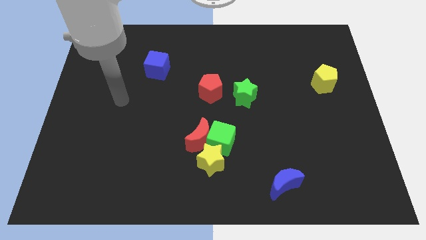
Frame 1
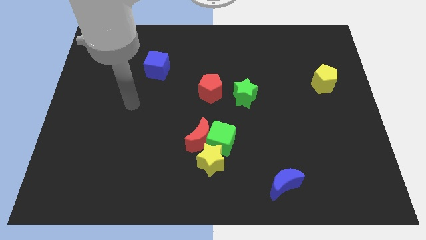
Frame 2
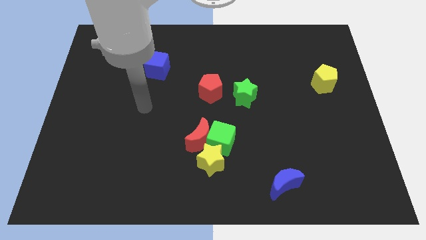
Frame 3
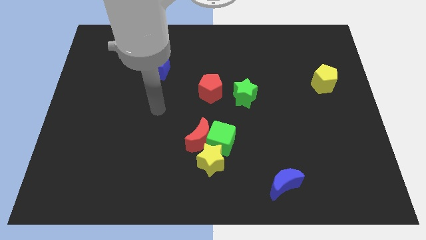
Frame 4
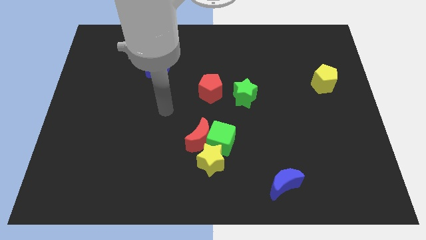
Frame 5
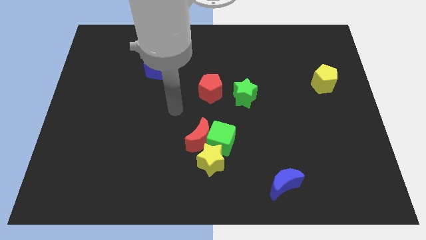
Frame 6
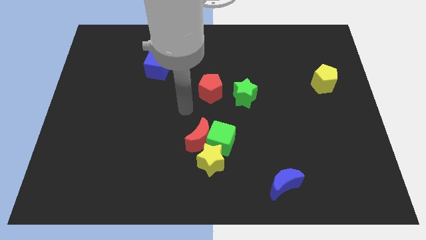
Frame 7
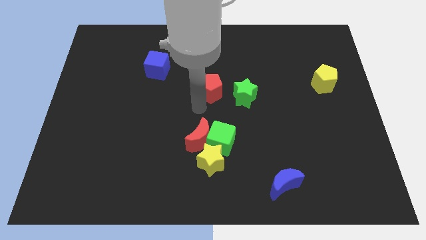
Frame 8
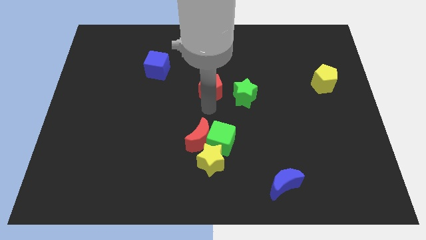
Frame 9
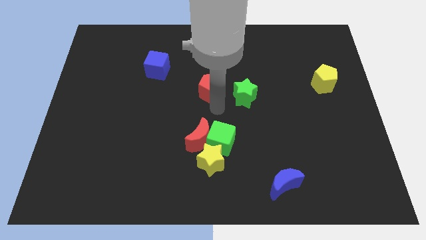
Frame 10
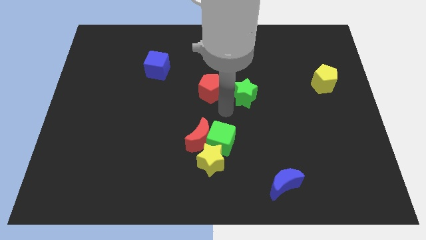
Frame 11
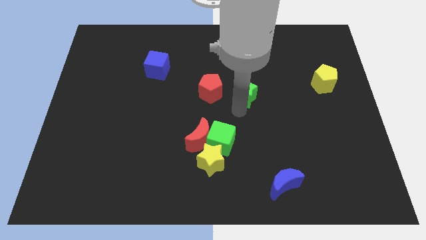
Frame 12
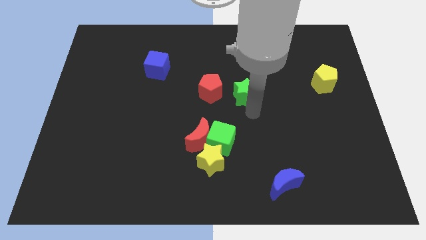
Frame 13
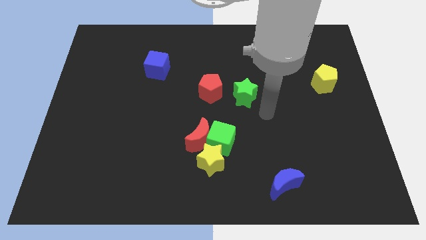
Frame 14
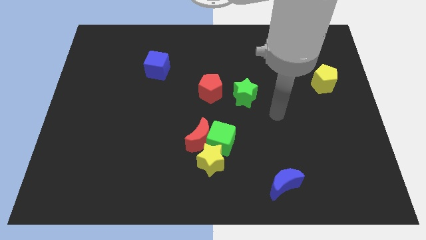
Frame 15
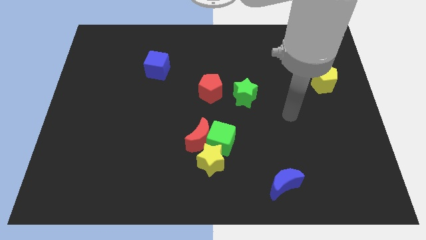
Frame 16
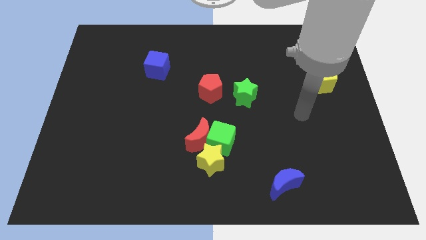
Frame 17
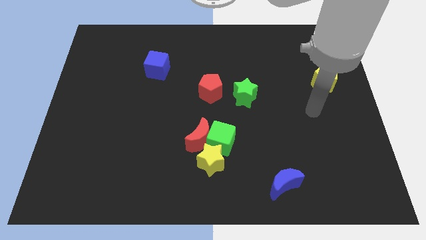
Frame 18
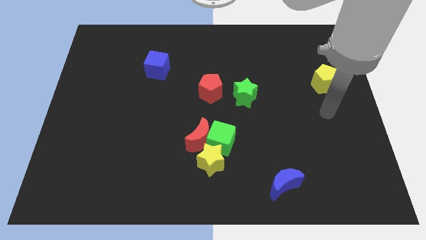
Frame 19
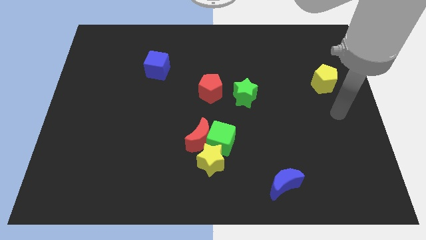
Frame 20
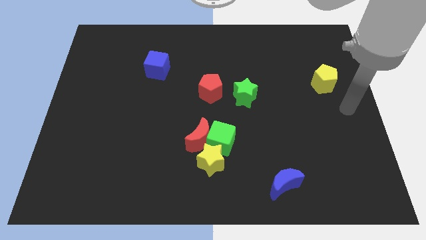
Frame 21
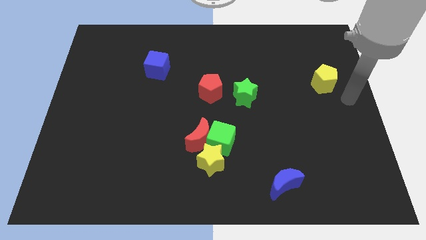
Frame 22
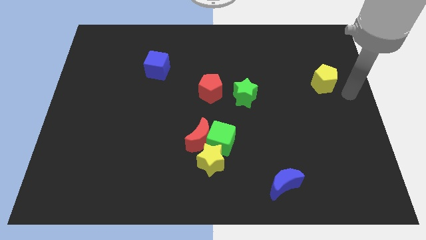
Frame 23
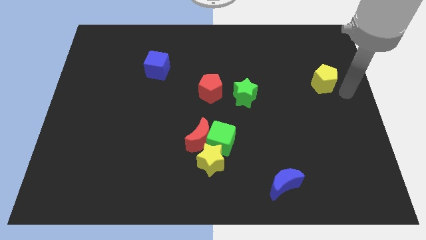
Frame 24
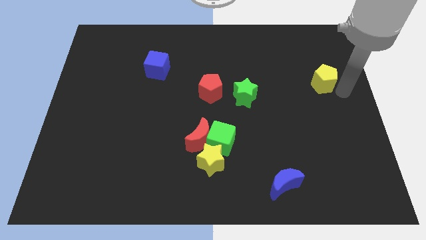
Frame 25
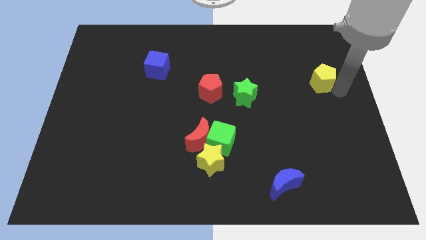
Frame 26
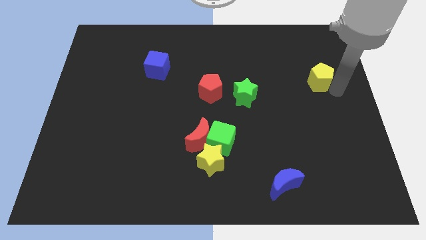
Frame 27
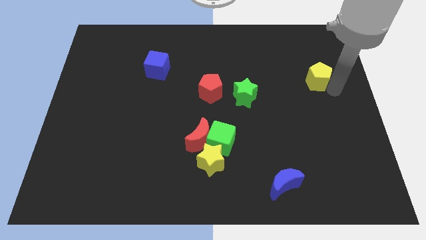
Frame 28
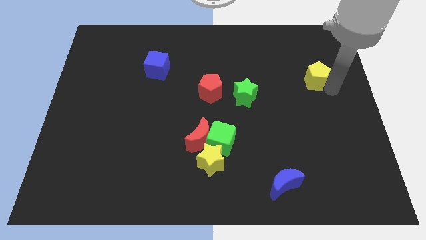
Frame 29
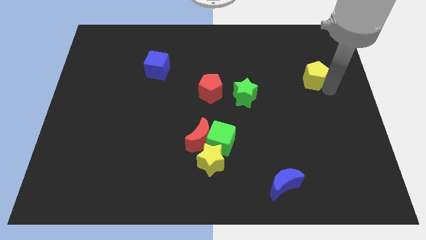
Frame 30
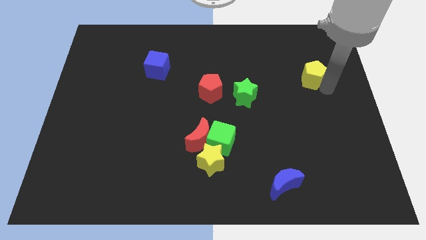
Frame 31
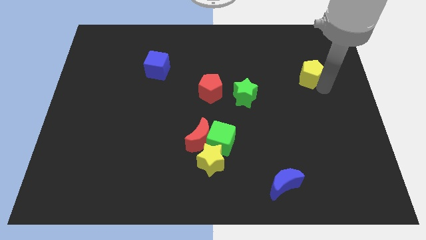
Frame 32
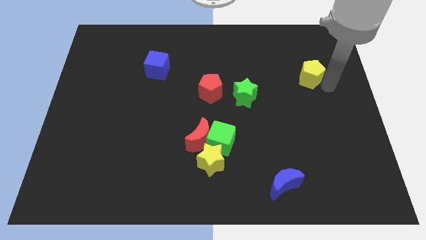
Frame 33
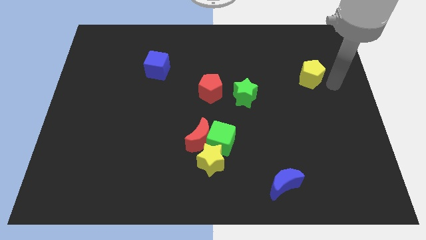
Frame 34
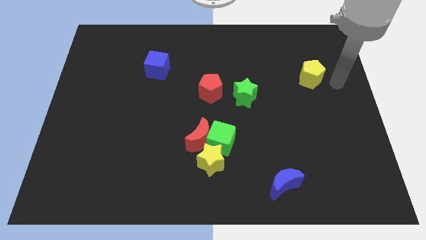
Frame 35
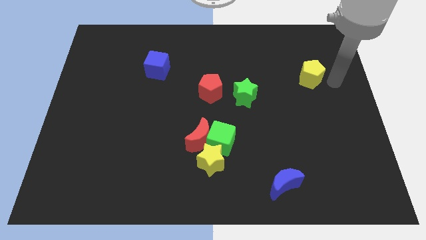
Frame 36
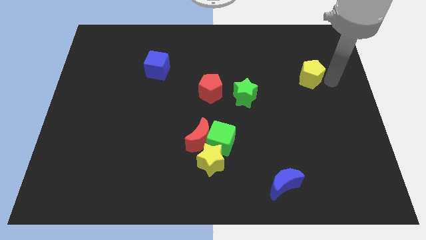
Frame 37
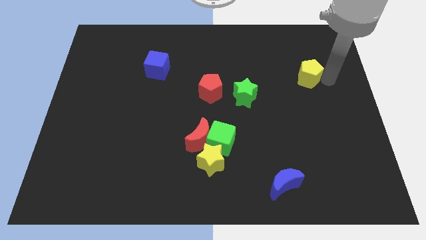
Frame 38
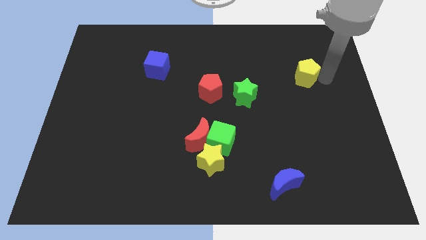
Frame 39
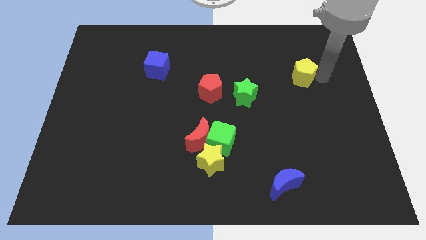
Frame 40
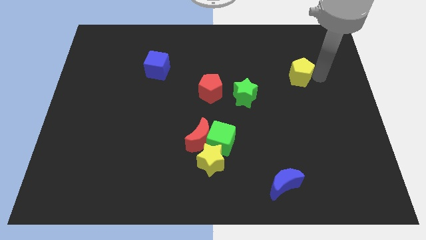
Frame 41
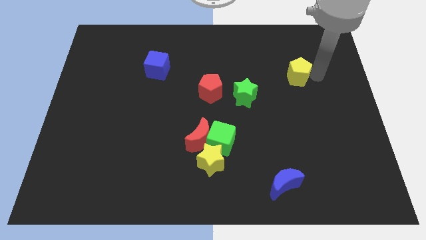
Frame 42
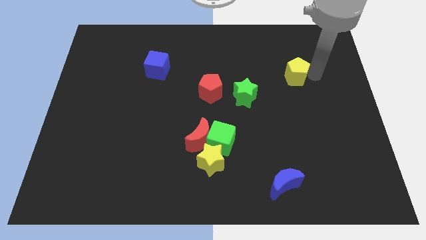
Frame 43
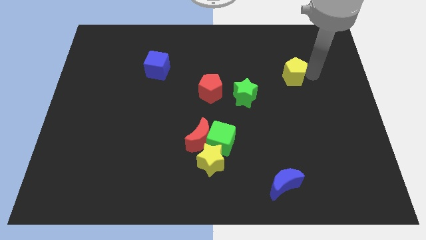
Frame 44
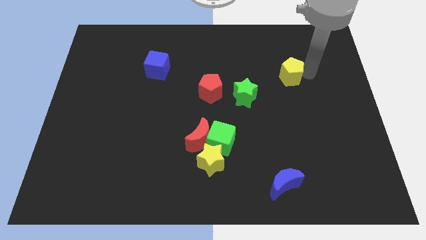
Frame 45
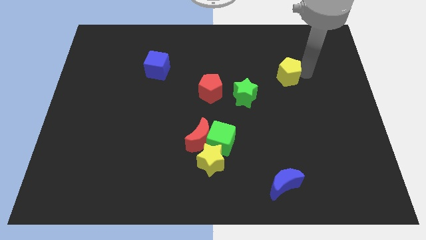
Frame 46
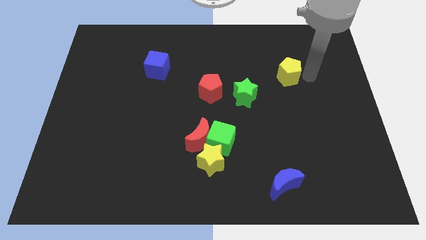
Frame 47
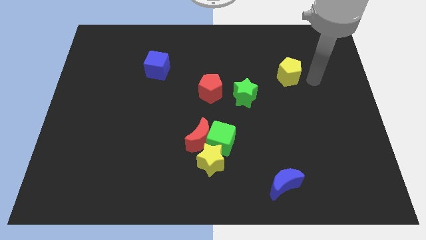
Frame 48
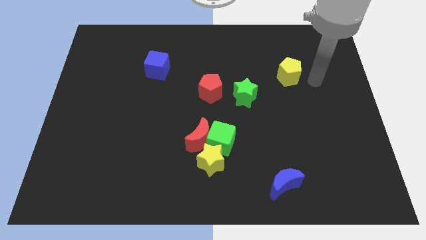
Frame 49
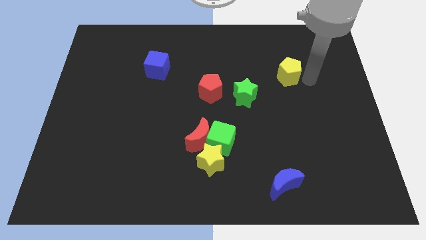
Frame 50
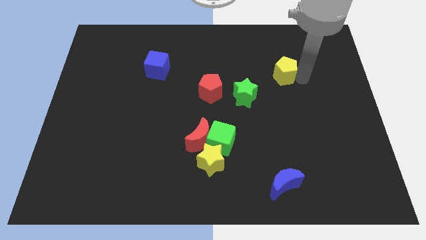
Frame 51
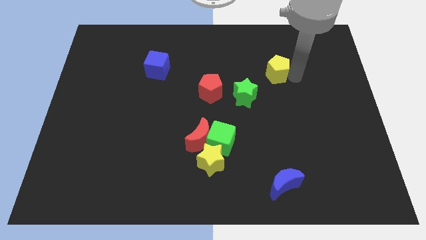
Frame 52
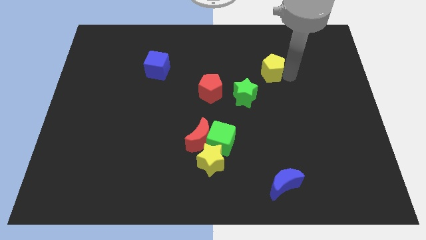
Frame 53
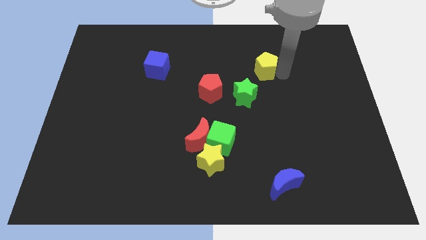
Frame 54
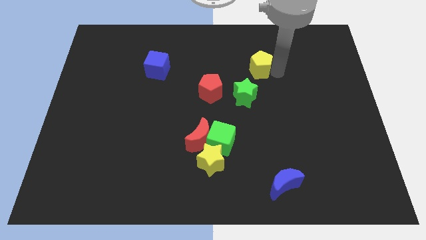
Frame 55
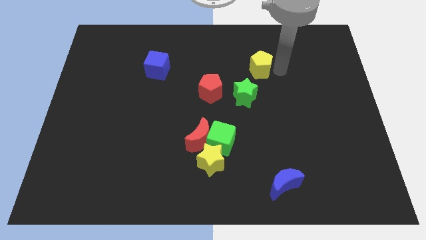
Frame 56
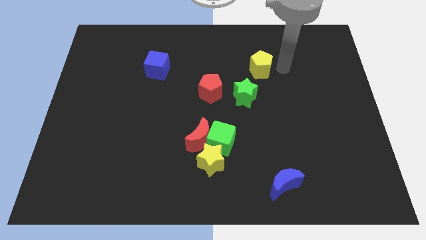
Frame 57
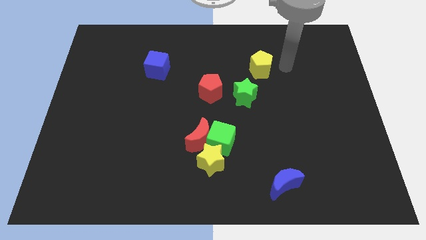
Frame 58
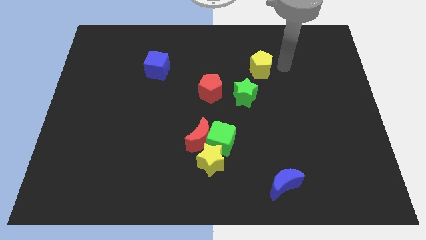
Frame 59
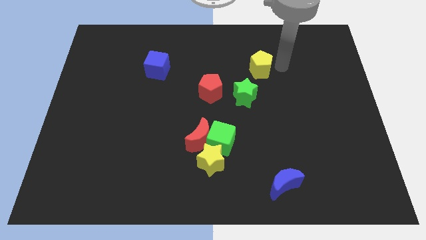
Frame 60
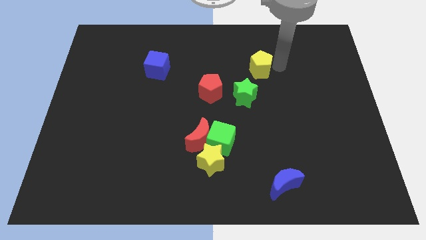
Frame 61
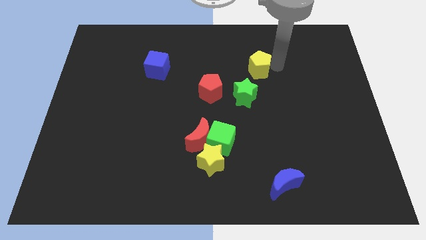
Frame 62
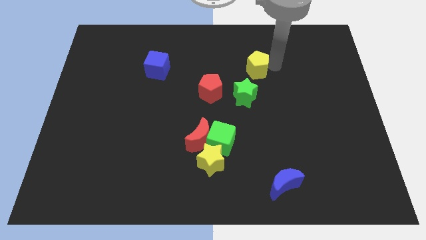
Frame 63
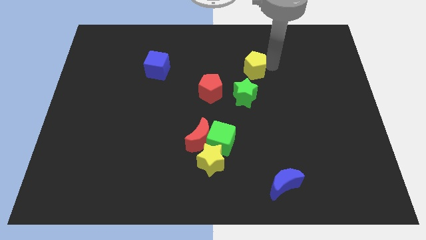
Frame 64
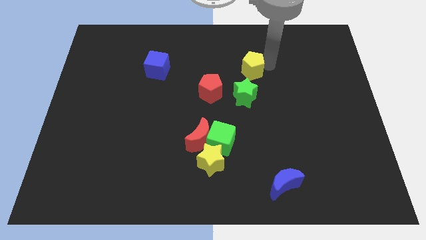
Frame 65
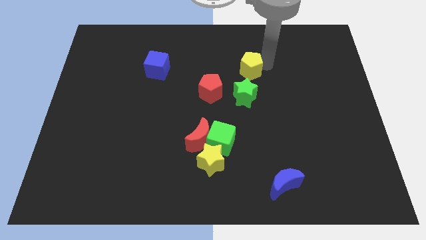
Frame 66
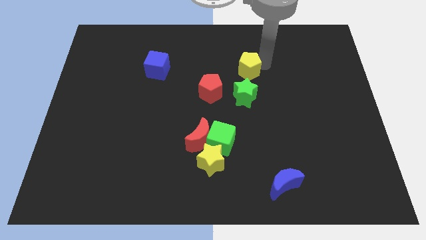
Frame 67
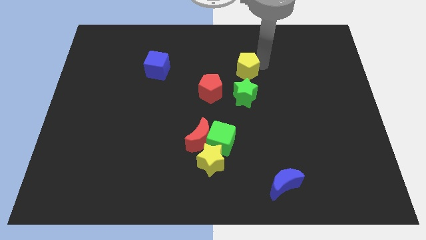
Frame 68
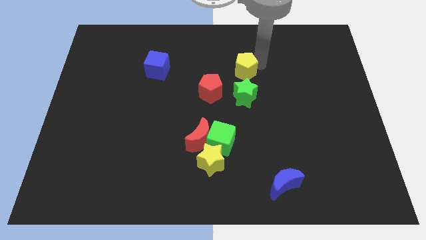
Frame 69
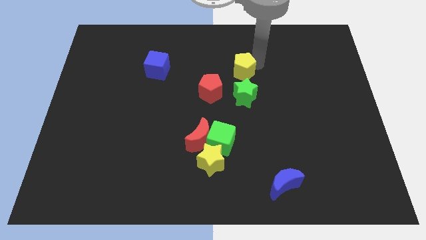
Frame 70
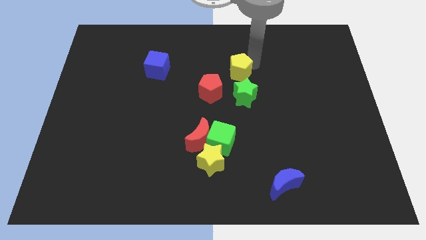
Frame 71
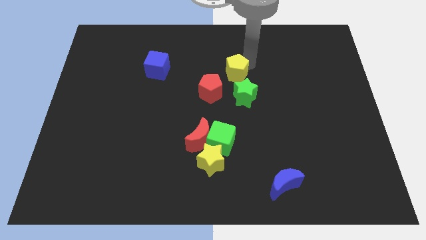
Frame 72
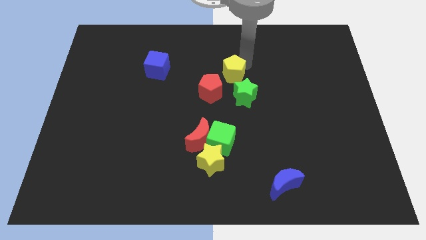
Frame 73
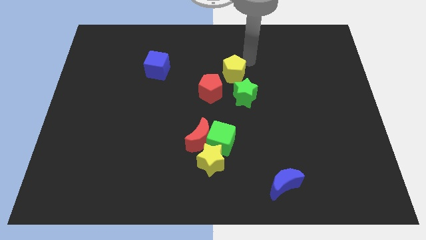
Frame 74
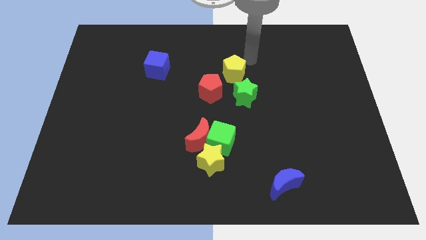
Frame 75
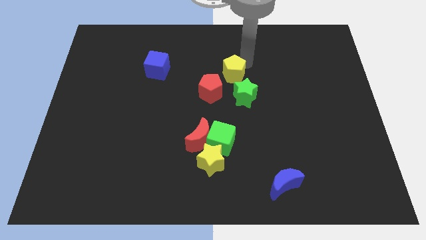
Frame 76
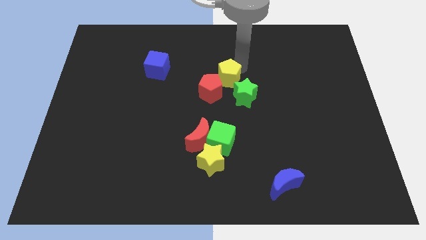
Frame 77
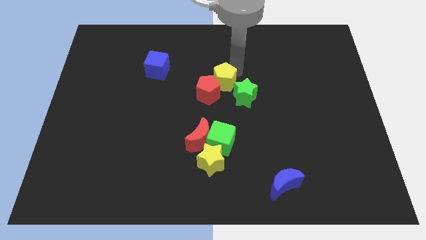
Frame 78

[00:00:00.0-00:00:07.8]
push the yellow pentagon next to the red pentagon
